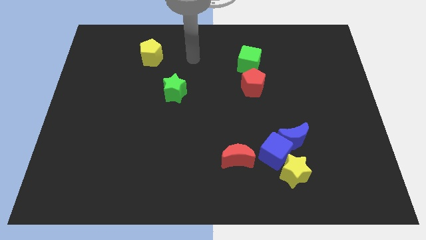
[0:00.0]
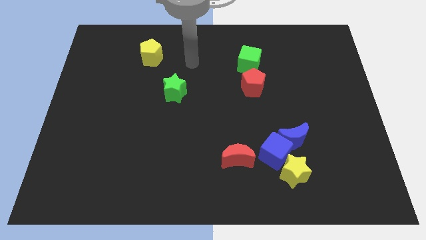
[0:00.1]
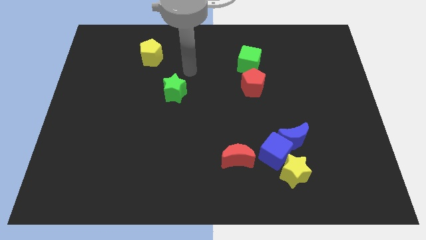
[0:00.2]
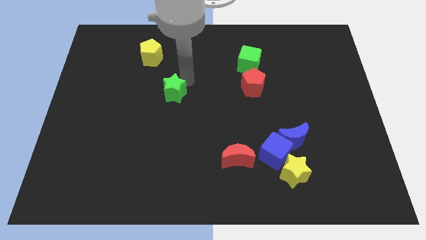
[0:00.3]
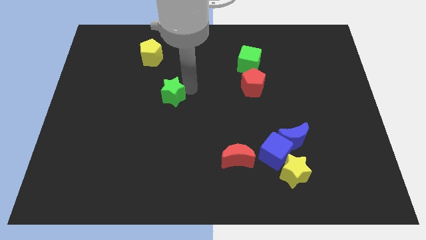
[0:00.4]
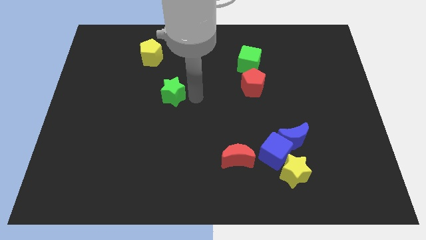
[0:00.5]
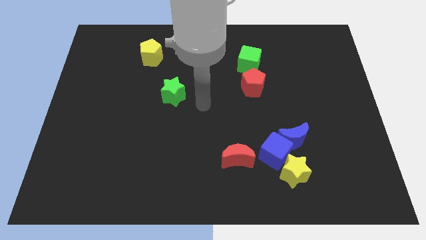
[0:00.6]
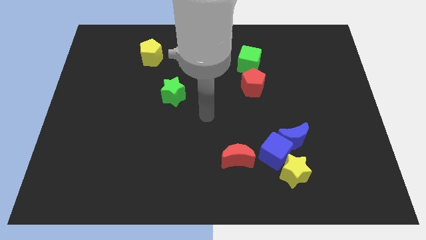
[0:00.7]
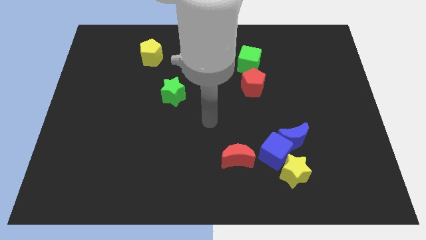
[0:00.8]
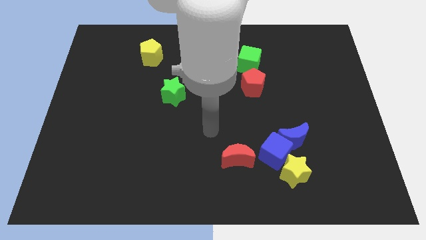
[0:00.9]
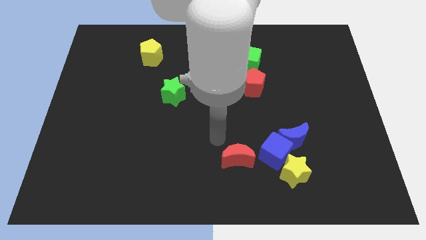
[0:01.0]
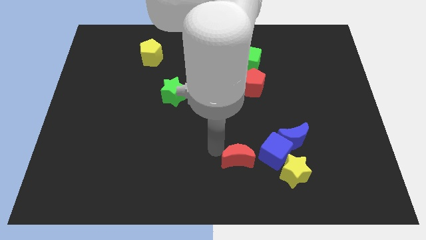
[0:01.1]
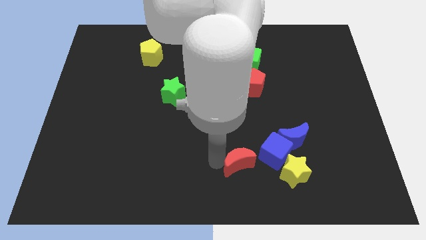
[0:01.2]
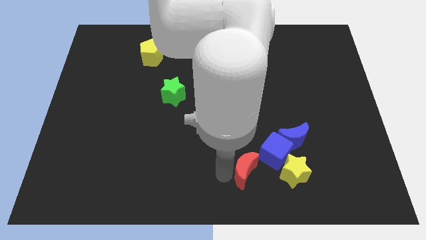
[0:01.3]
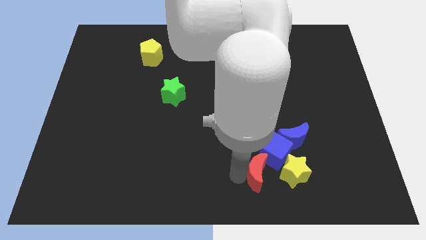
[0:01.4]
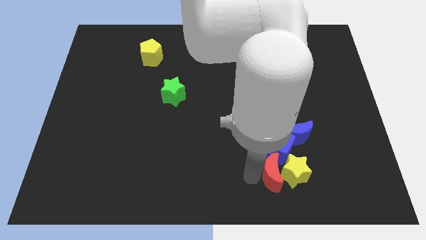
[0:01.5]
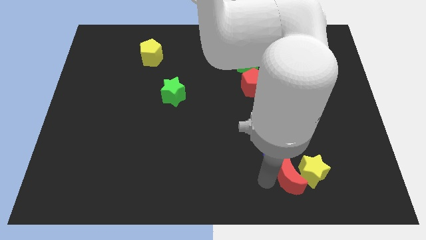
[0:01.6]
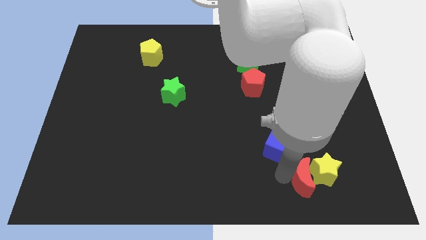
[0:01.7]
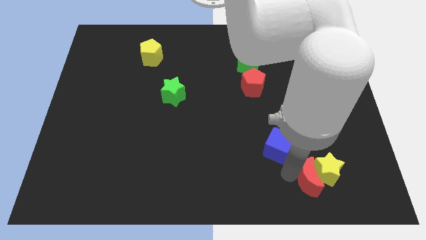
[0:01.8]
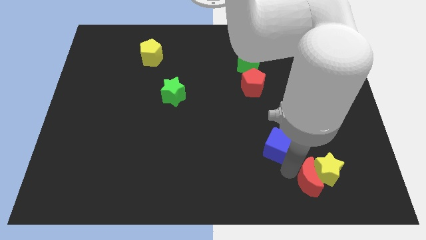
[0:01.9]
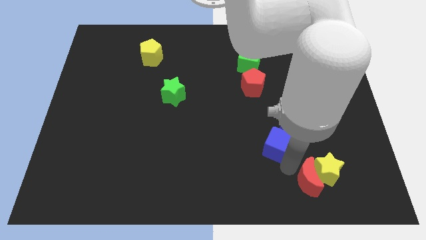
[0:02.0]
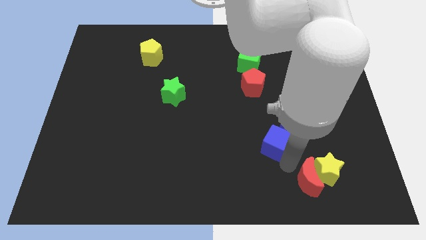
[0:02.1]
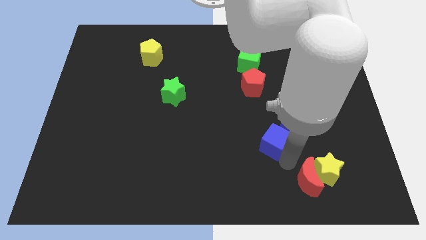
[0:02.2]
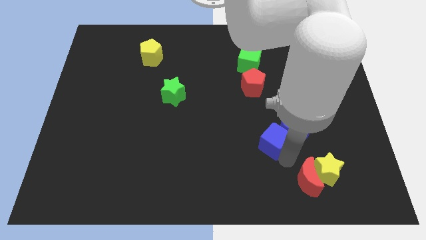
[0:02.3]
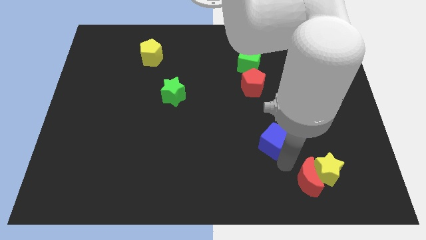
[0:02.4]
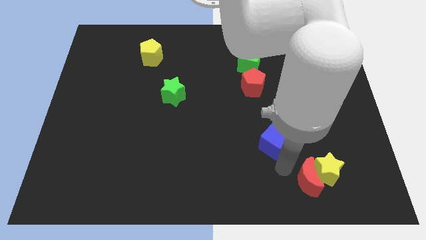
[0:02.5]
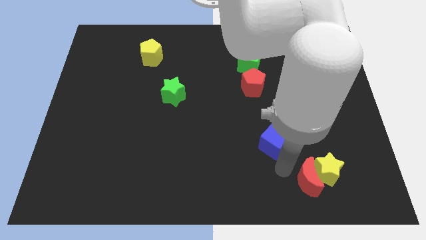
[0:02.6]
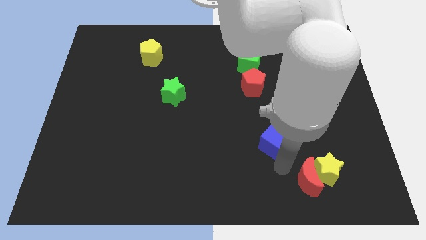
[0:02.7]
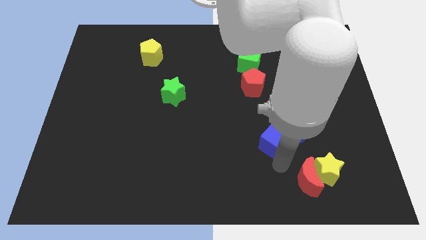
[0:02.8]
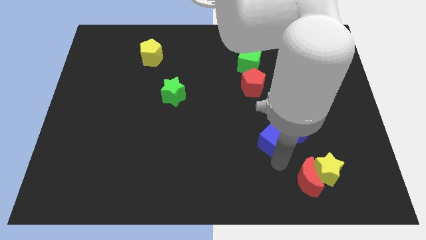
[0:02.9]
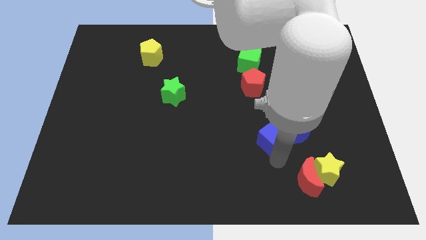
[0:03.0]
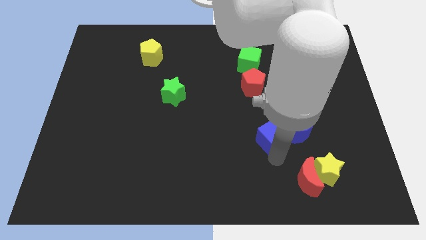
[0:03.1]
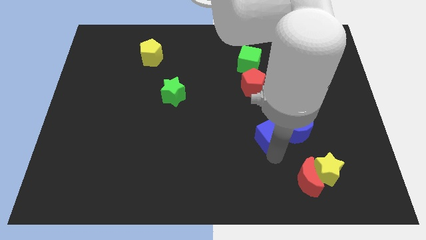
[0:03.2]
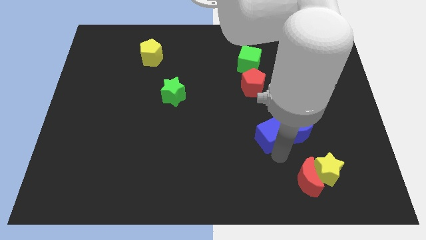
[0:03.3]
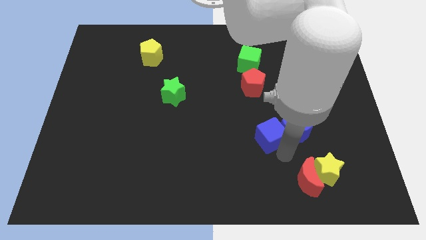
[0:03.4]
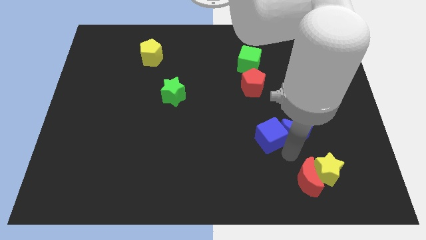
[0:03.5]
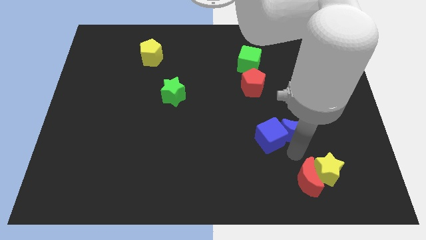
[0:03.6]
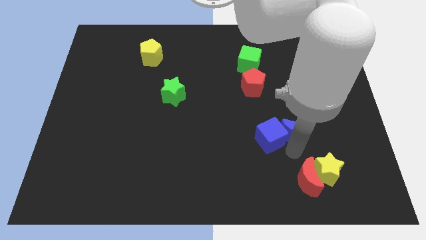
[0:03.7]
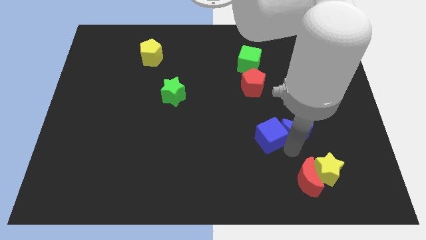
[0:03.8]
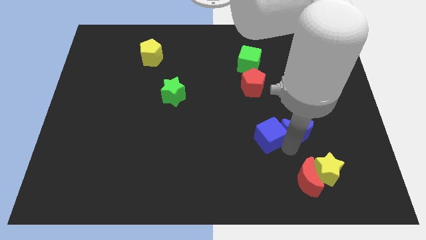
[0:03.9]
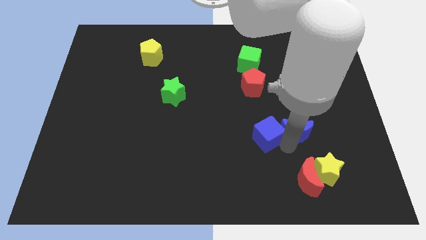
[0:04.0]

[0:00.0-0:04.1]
separate the blue cube from the blue moon, yellow star, and red moon

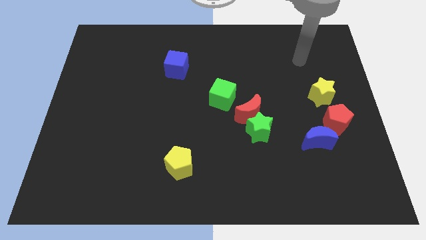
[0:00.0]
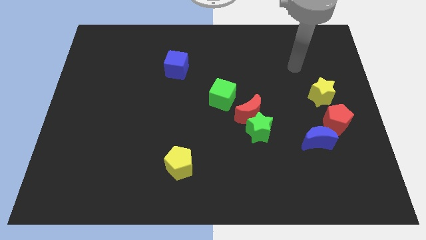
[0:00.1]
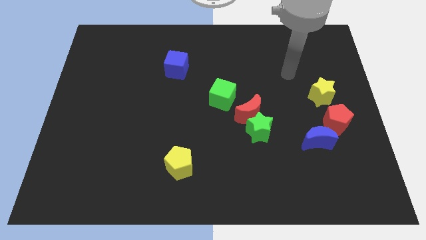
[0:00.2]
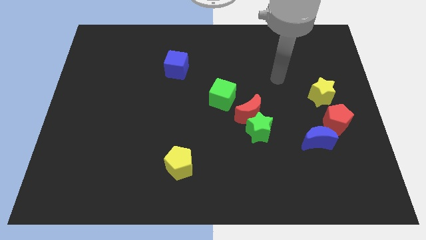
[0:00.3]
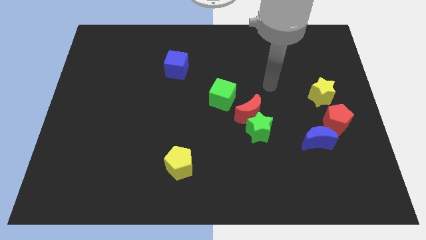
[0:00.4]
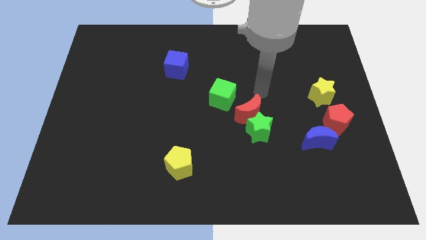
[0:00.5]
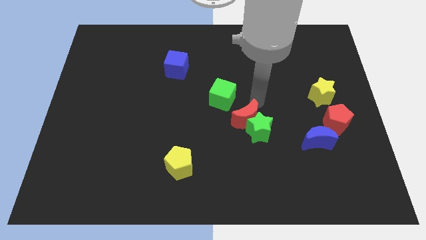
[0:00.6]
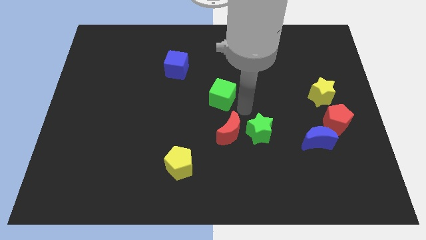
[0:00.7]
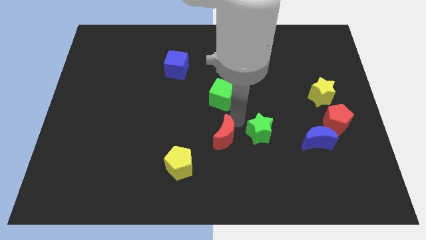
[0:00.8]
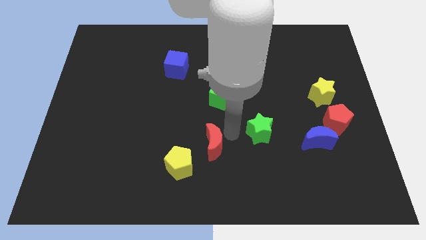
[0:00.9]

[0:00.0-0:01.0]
separate the green star from the red moon

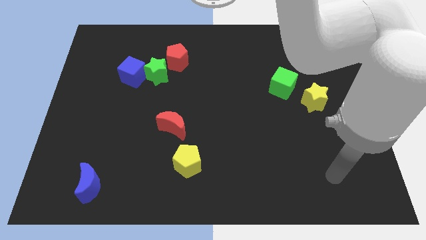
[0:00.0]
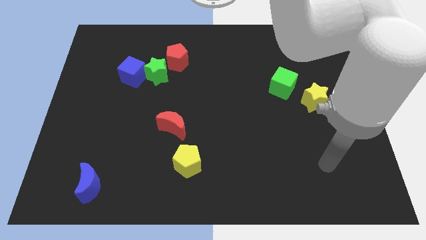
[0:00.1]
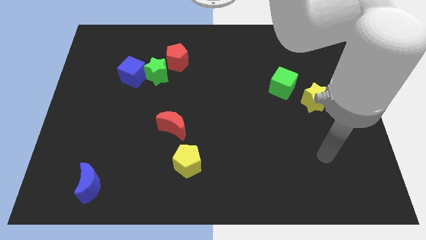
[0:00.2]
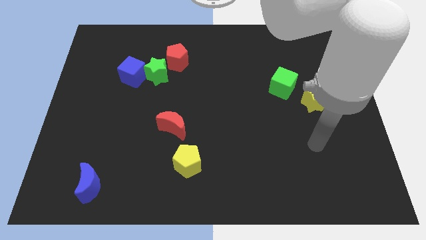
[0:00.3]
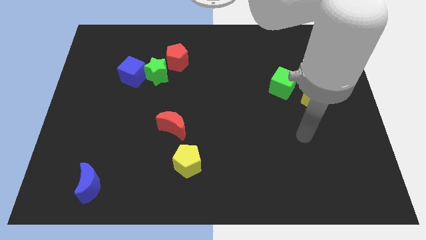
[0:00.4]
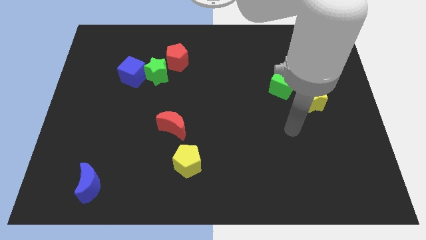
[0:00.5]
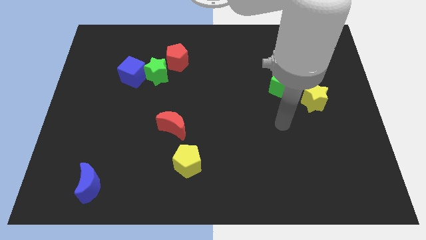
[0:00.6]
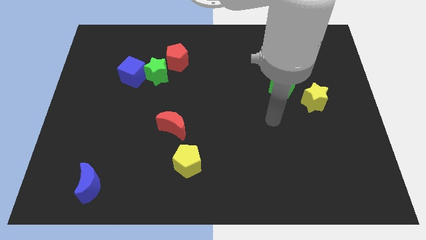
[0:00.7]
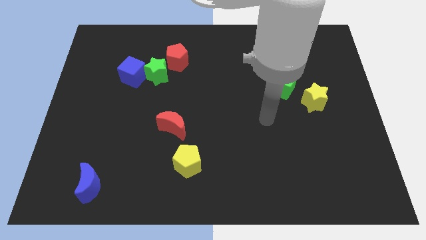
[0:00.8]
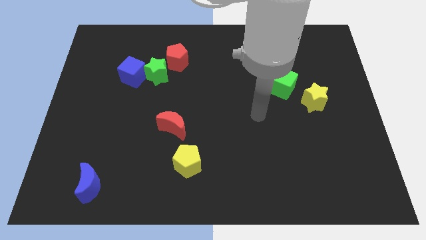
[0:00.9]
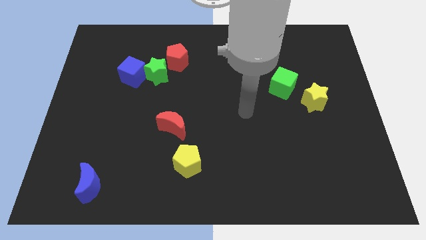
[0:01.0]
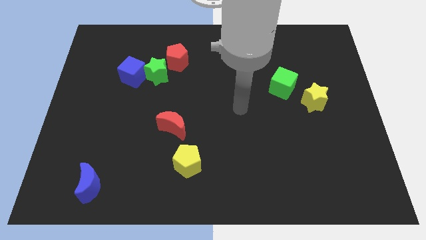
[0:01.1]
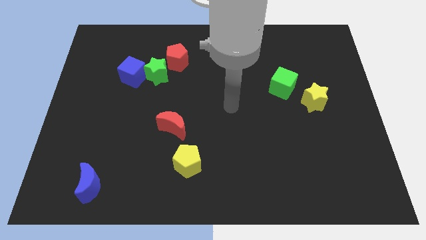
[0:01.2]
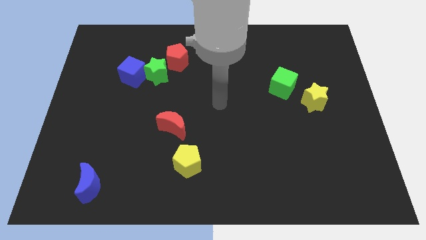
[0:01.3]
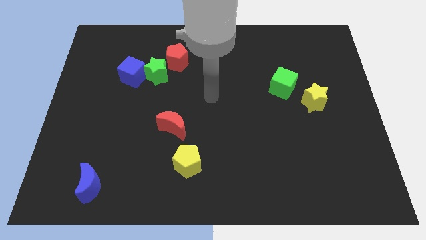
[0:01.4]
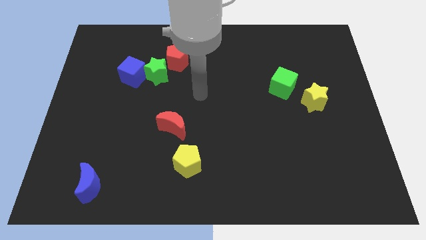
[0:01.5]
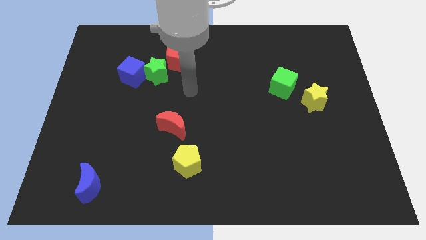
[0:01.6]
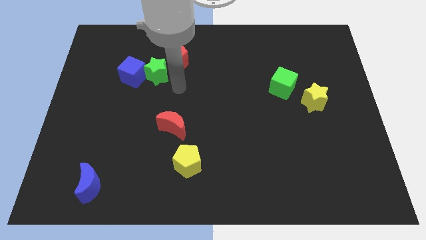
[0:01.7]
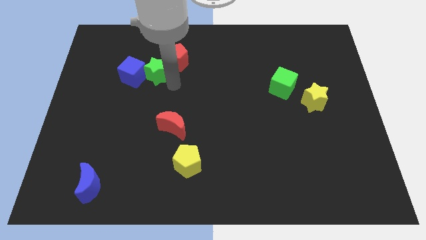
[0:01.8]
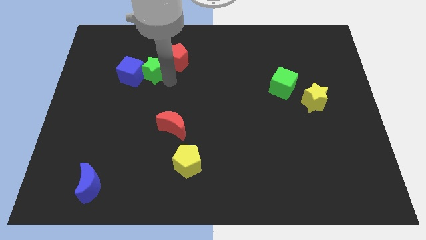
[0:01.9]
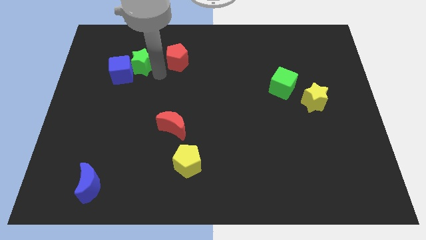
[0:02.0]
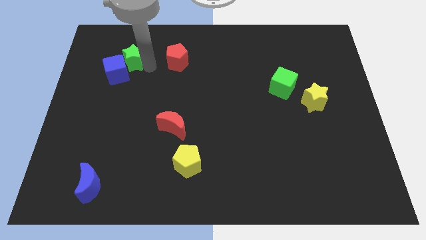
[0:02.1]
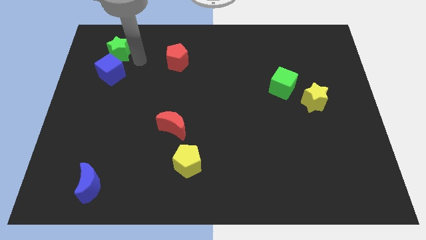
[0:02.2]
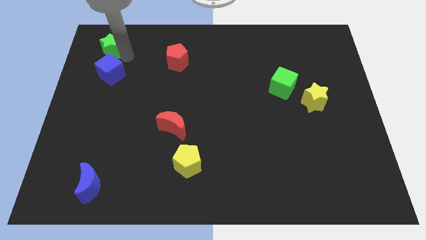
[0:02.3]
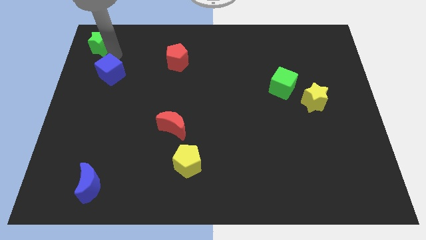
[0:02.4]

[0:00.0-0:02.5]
separate the blue cube from the green star

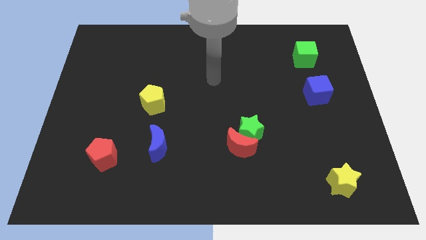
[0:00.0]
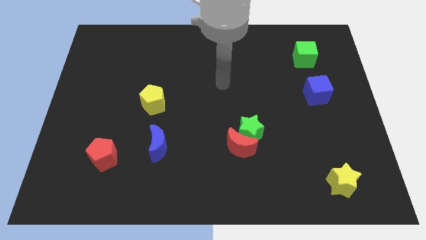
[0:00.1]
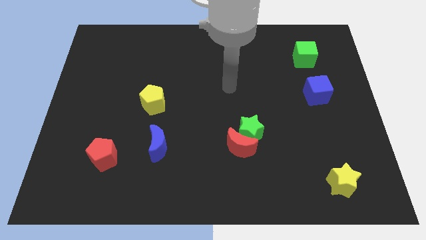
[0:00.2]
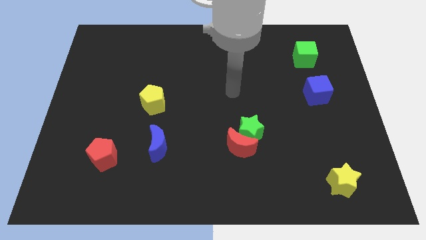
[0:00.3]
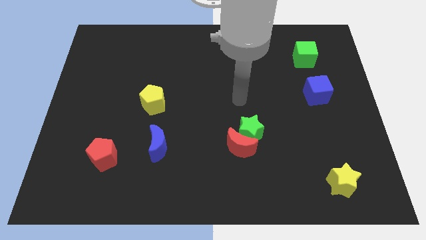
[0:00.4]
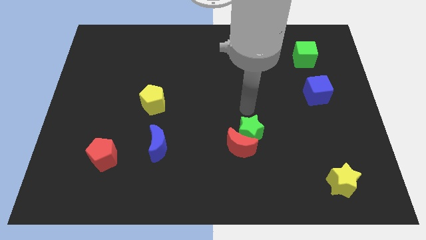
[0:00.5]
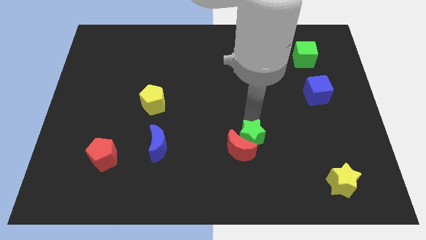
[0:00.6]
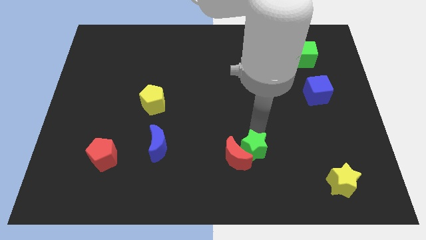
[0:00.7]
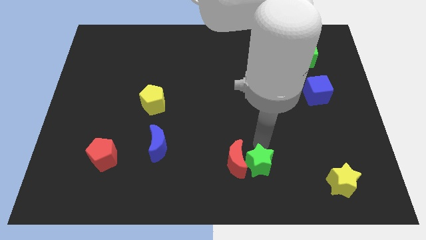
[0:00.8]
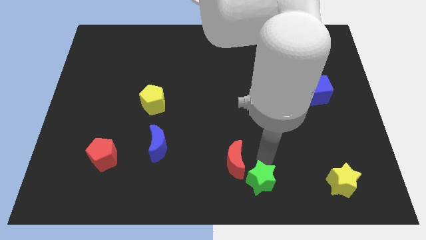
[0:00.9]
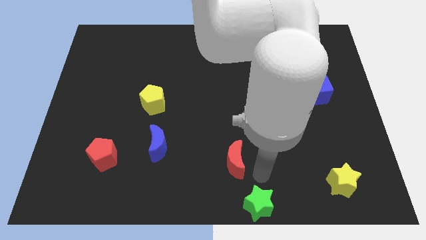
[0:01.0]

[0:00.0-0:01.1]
pull the red moon apart from the green star

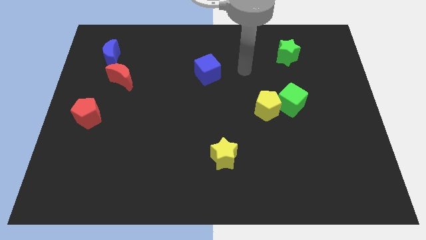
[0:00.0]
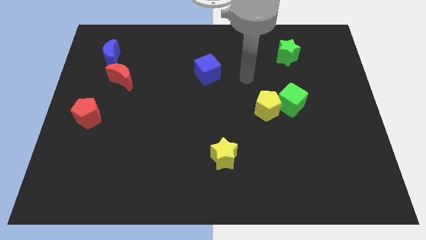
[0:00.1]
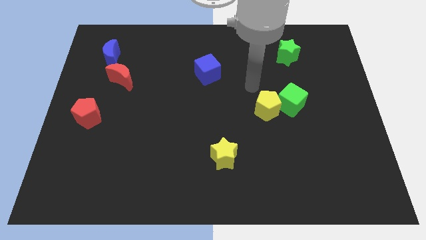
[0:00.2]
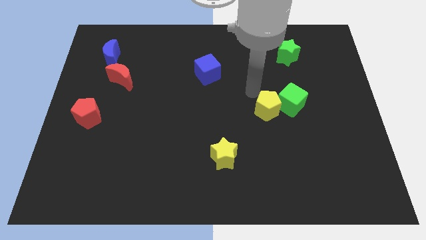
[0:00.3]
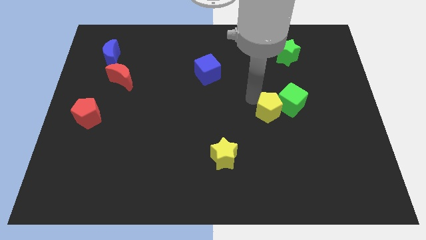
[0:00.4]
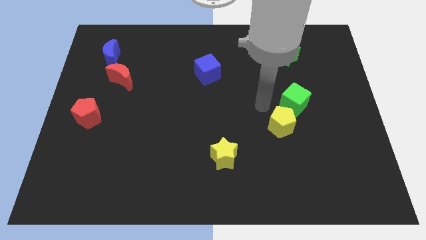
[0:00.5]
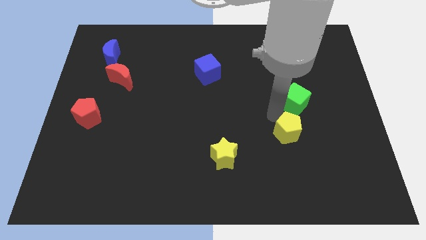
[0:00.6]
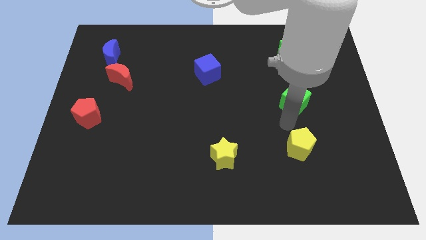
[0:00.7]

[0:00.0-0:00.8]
move the green cube away from the yellow pentagon
